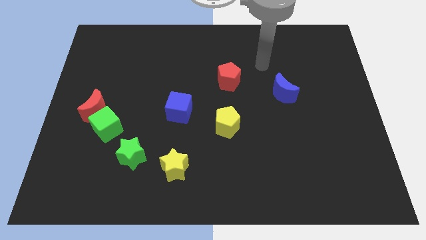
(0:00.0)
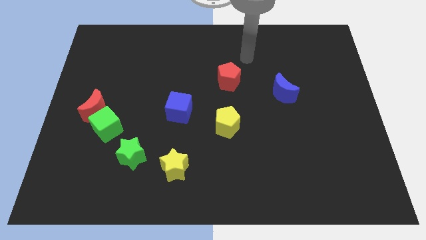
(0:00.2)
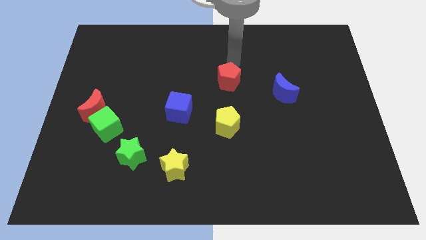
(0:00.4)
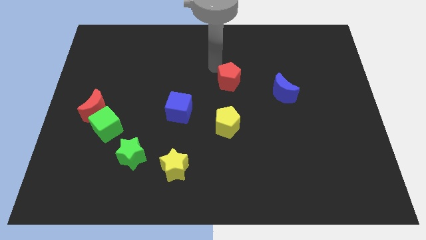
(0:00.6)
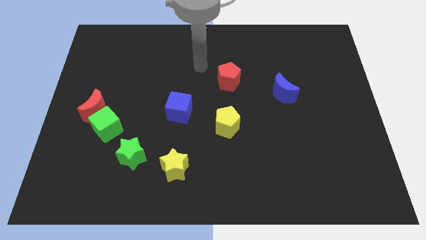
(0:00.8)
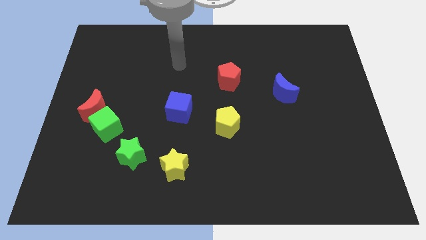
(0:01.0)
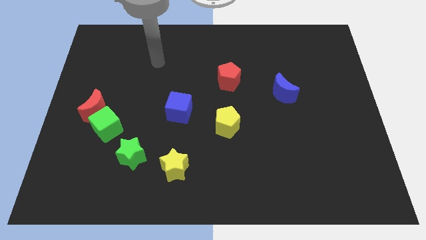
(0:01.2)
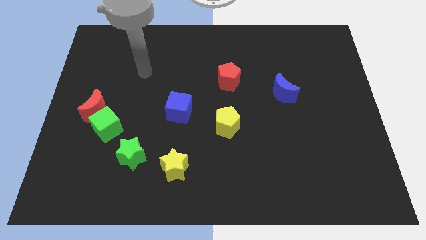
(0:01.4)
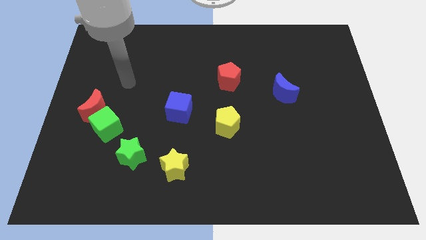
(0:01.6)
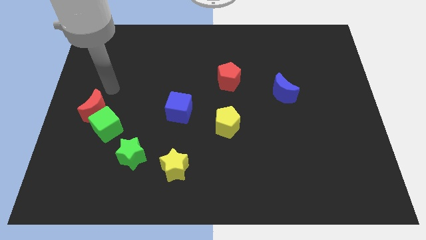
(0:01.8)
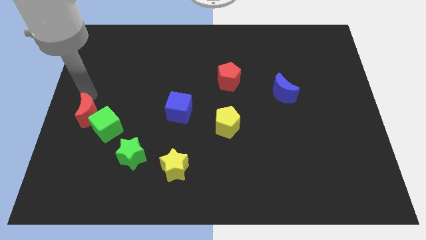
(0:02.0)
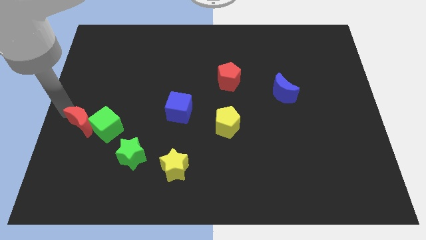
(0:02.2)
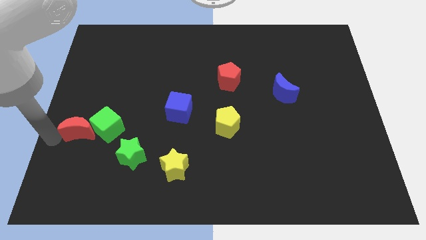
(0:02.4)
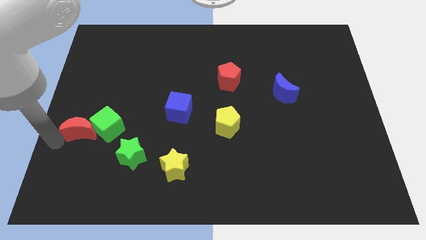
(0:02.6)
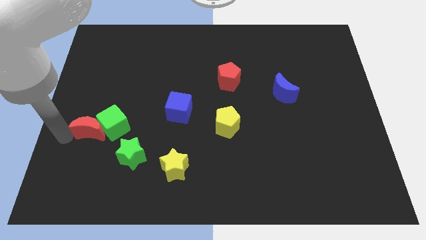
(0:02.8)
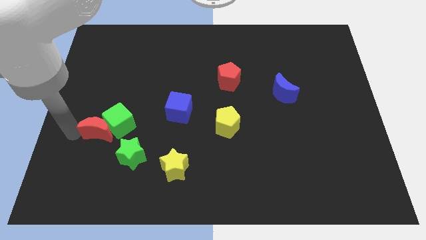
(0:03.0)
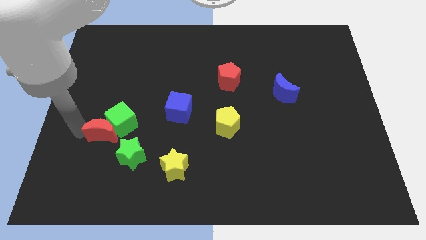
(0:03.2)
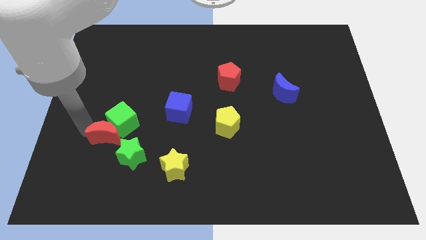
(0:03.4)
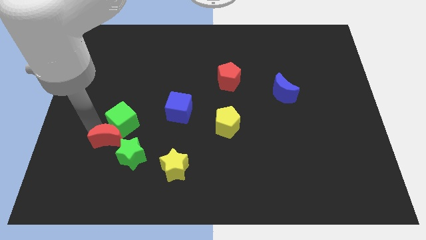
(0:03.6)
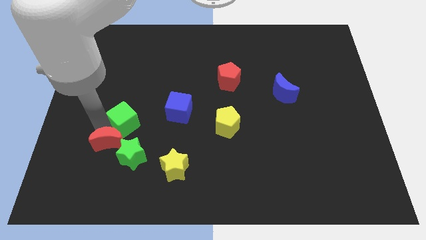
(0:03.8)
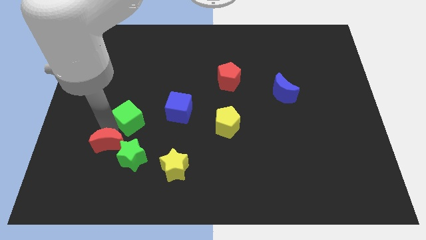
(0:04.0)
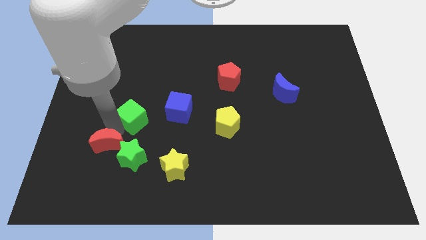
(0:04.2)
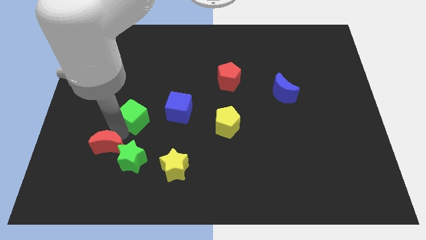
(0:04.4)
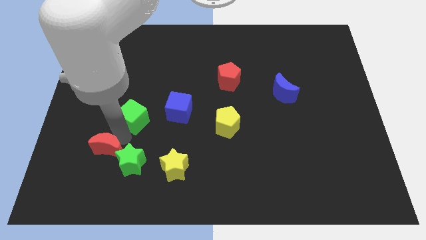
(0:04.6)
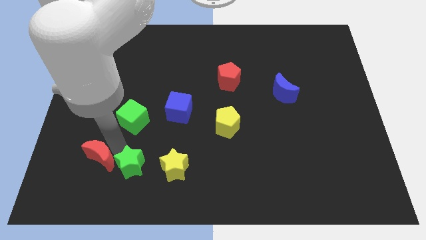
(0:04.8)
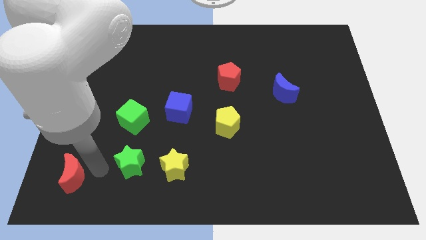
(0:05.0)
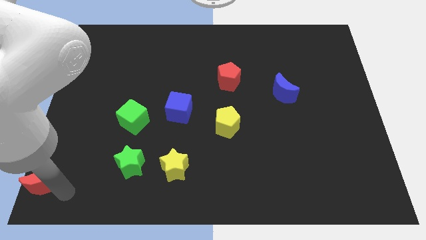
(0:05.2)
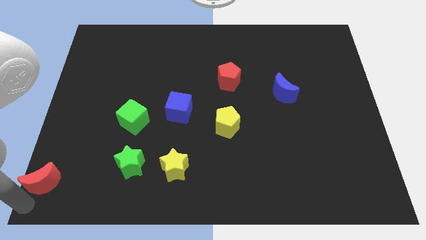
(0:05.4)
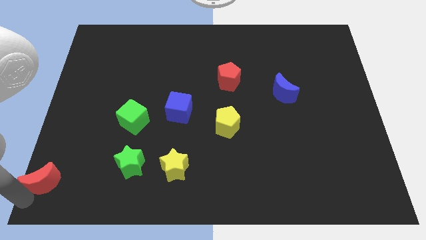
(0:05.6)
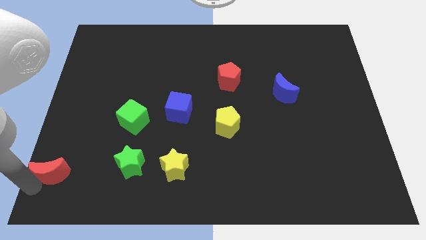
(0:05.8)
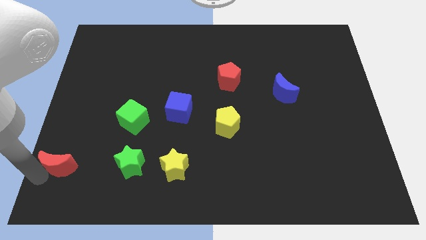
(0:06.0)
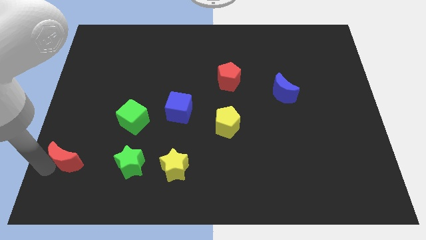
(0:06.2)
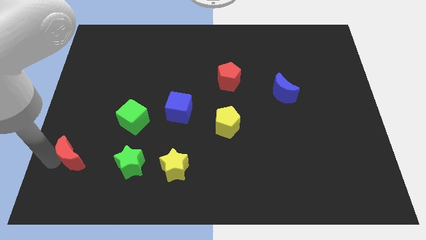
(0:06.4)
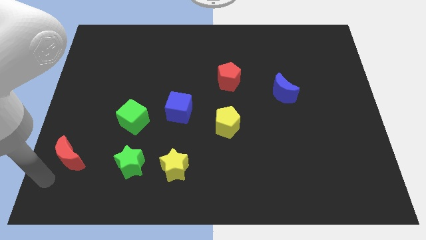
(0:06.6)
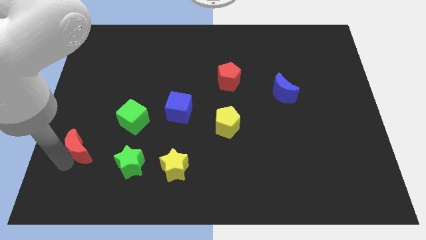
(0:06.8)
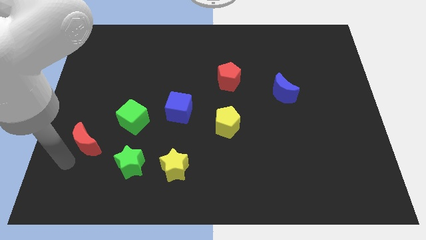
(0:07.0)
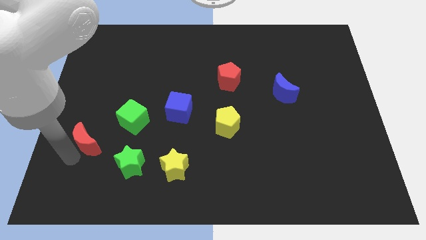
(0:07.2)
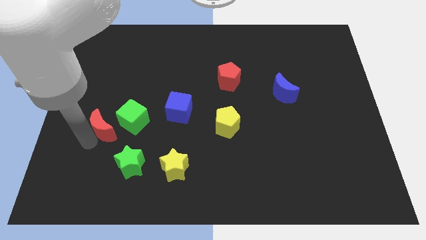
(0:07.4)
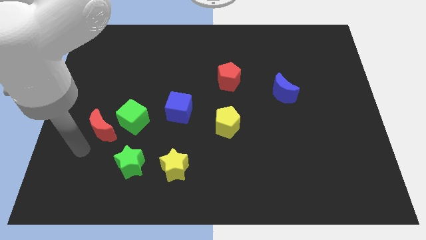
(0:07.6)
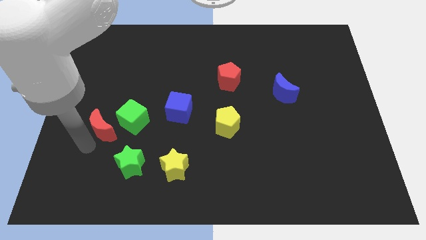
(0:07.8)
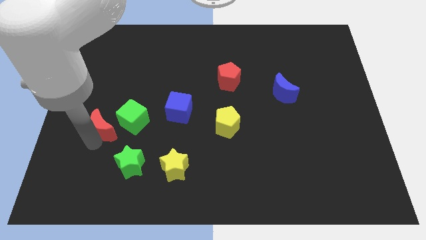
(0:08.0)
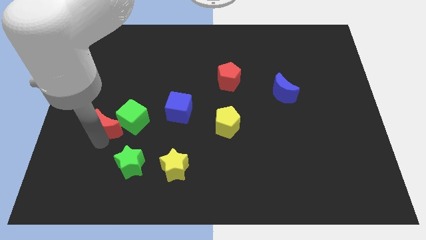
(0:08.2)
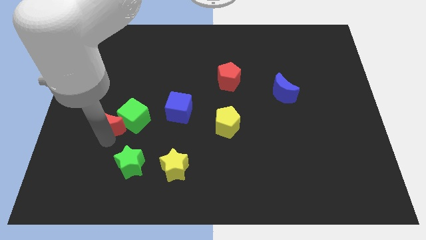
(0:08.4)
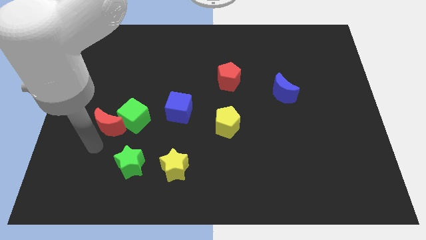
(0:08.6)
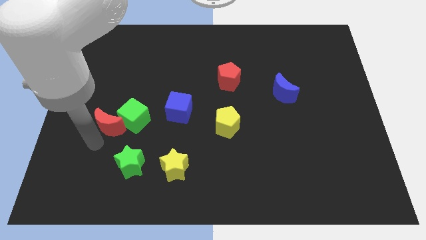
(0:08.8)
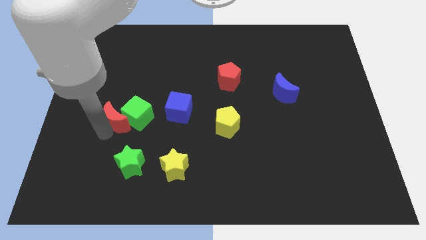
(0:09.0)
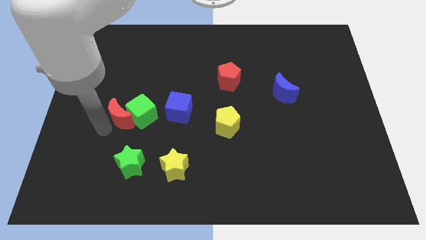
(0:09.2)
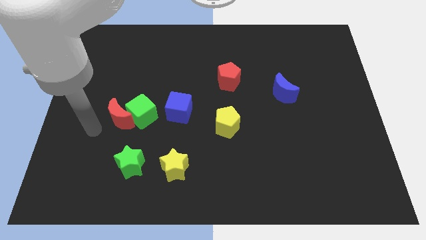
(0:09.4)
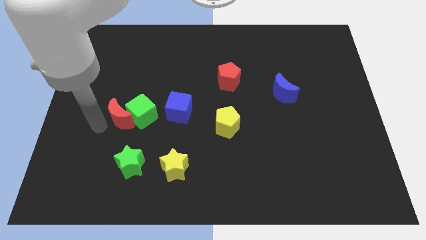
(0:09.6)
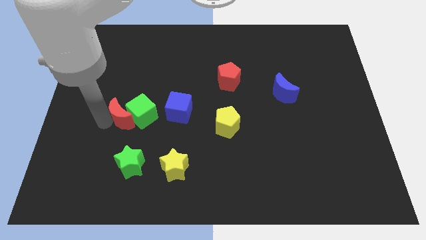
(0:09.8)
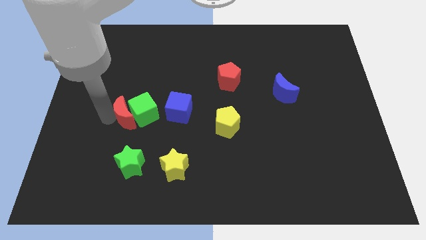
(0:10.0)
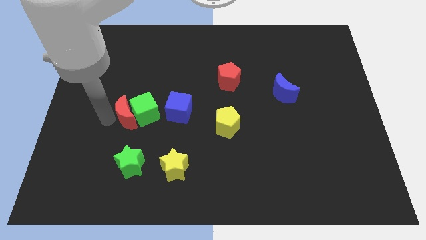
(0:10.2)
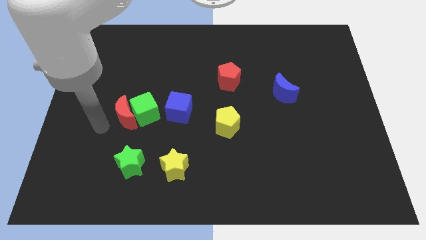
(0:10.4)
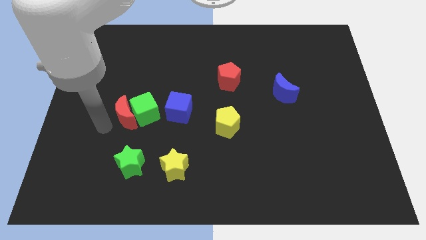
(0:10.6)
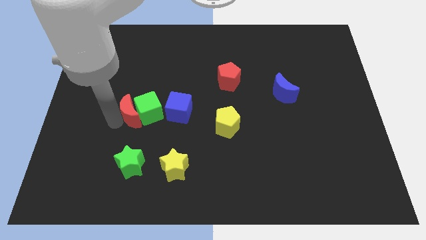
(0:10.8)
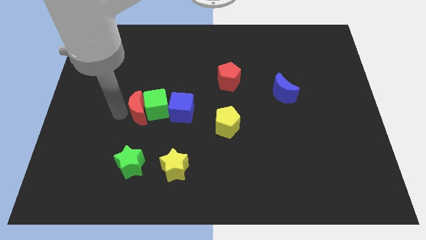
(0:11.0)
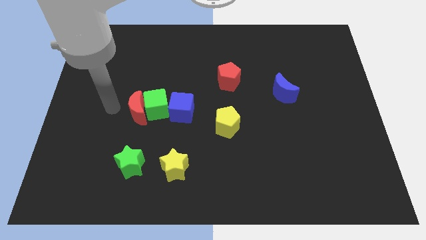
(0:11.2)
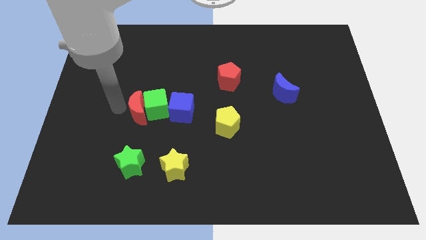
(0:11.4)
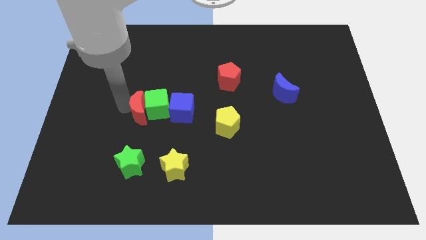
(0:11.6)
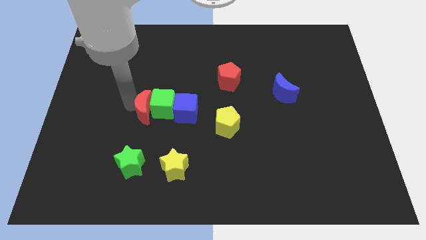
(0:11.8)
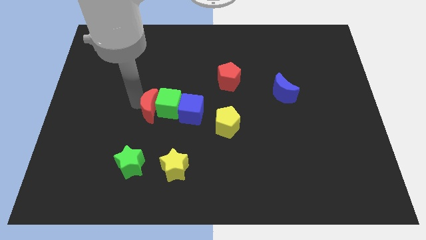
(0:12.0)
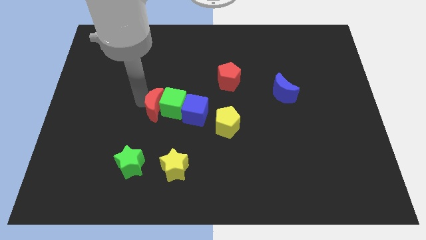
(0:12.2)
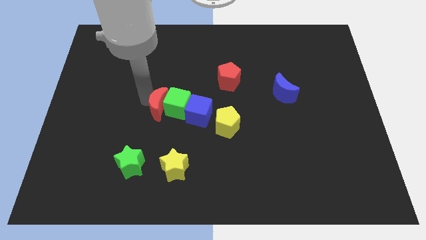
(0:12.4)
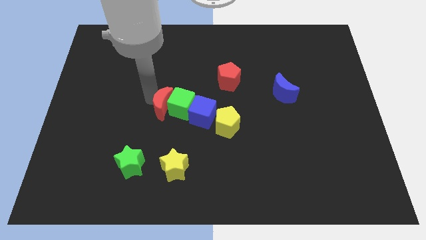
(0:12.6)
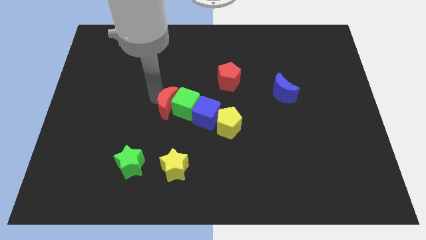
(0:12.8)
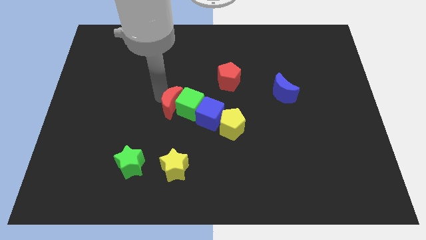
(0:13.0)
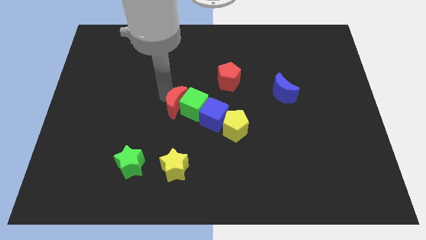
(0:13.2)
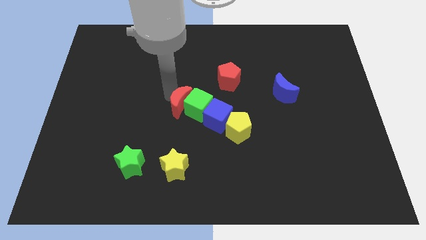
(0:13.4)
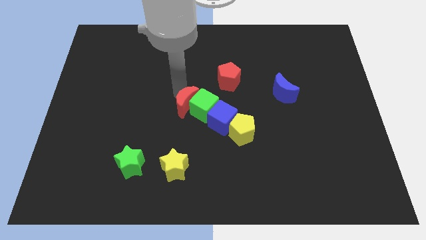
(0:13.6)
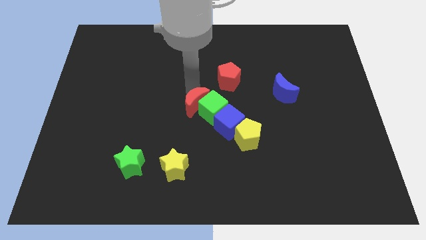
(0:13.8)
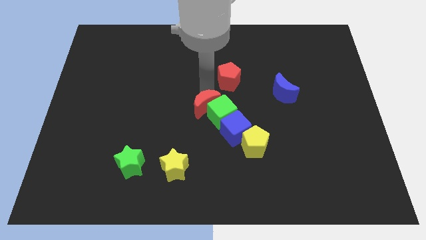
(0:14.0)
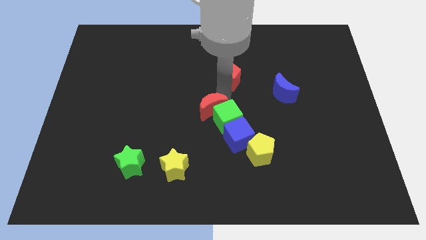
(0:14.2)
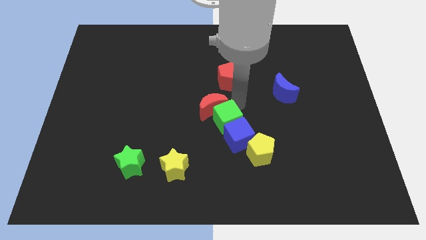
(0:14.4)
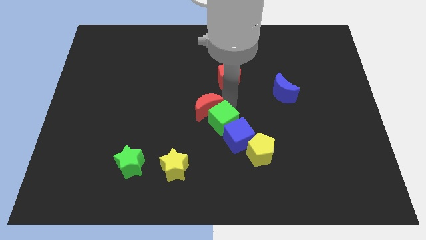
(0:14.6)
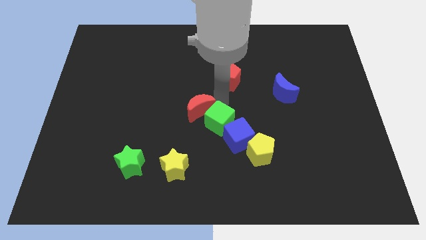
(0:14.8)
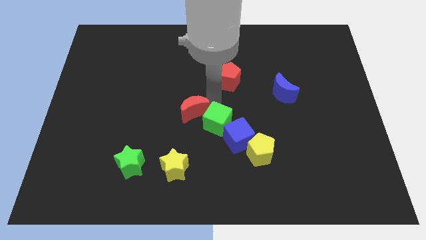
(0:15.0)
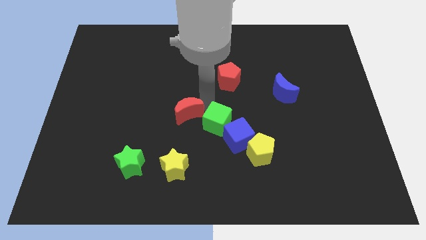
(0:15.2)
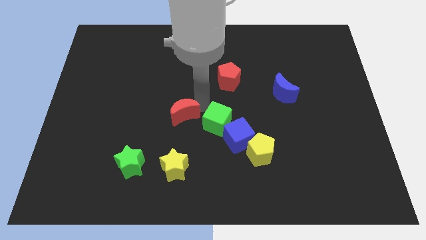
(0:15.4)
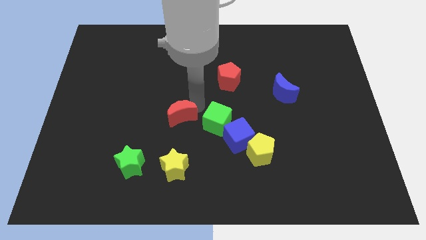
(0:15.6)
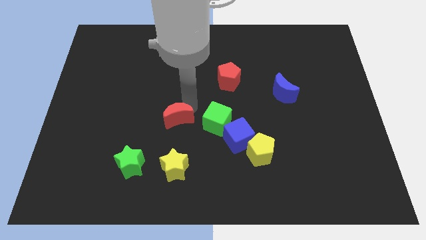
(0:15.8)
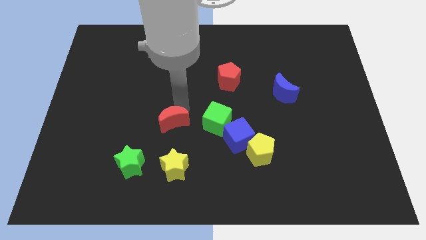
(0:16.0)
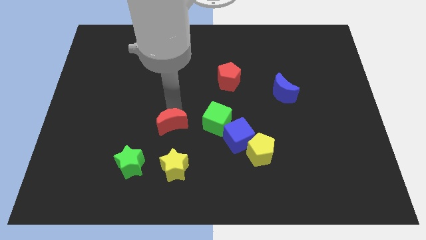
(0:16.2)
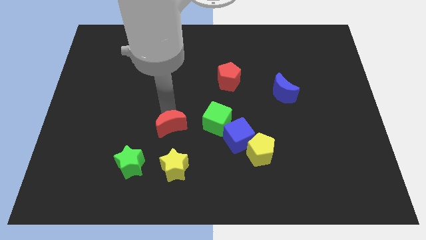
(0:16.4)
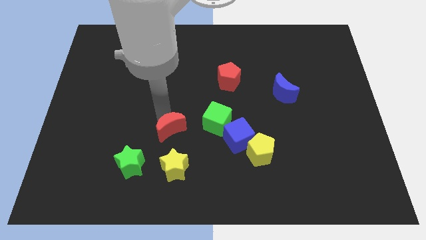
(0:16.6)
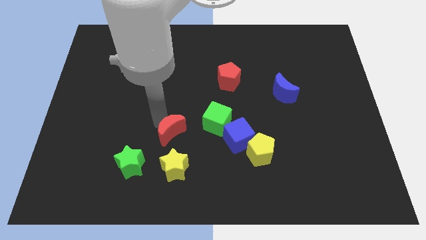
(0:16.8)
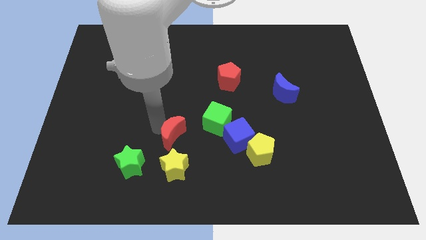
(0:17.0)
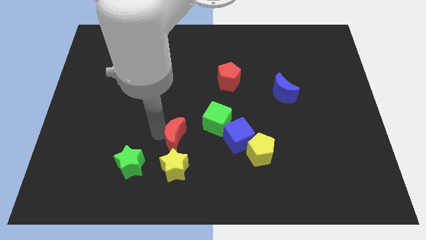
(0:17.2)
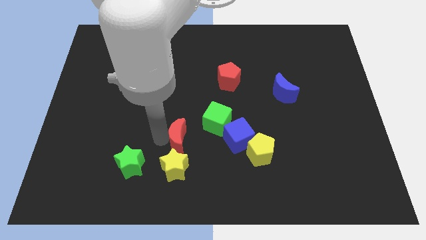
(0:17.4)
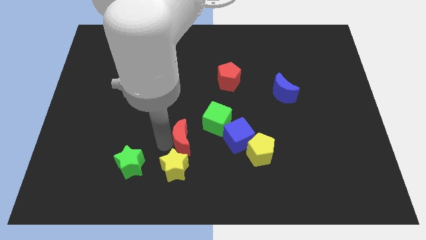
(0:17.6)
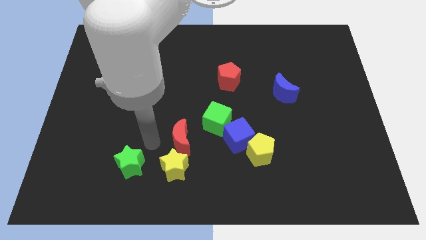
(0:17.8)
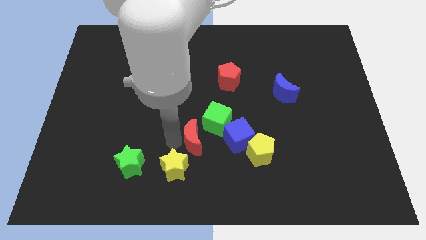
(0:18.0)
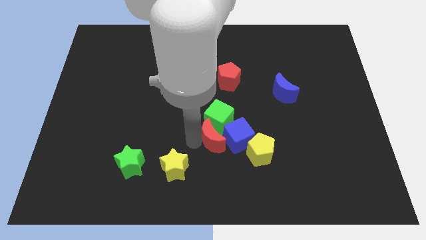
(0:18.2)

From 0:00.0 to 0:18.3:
push the red moon next to the blue cube
